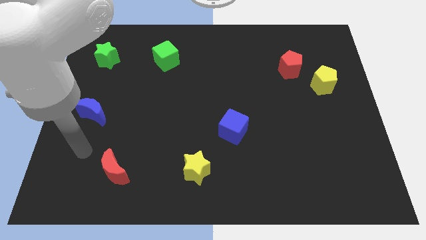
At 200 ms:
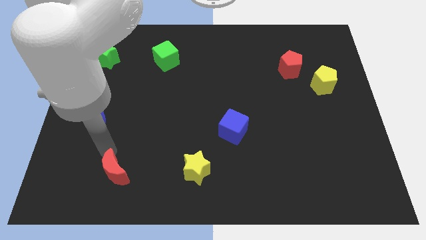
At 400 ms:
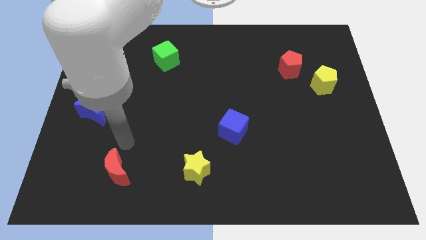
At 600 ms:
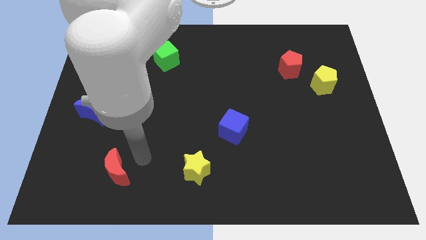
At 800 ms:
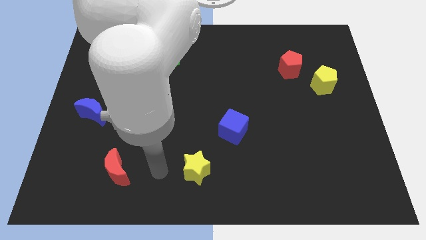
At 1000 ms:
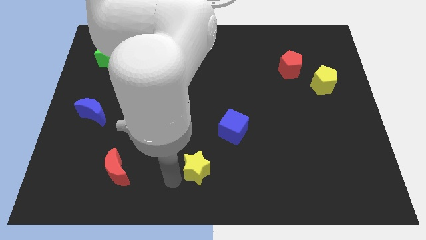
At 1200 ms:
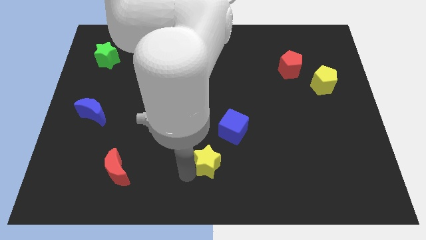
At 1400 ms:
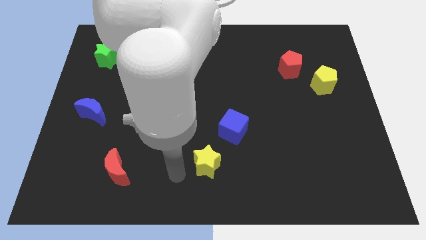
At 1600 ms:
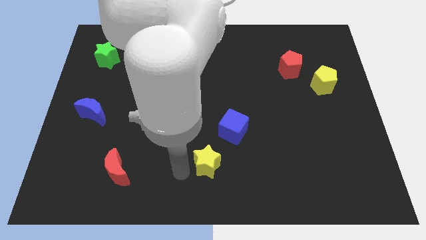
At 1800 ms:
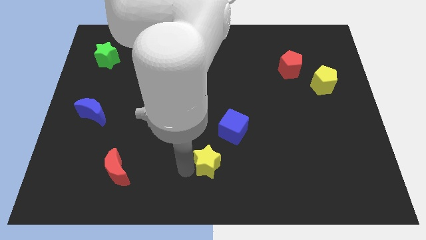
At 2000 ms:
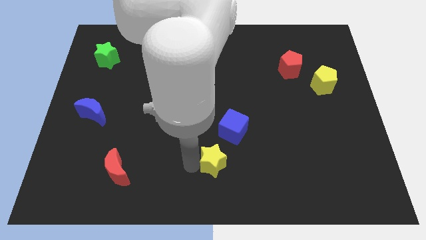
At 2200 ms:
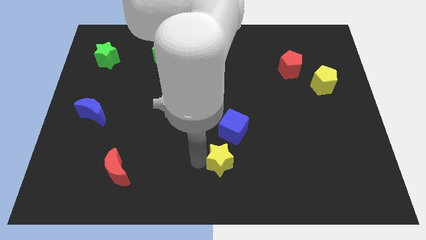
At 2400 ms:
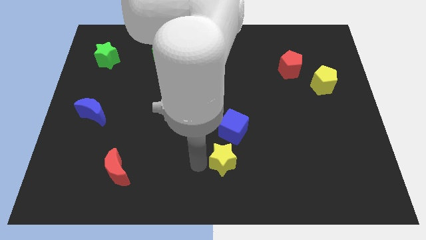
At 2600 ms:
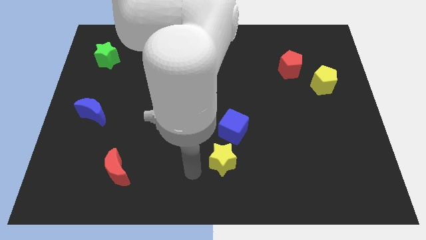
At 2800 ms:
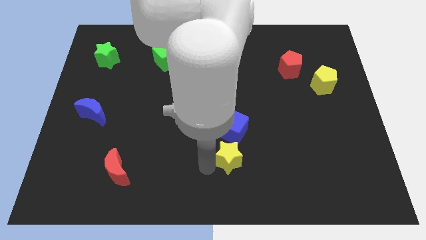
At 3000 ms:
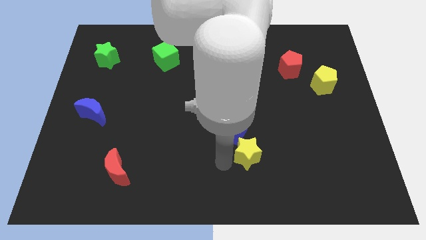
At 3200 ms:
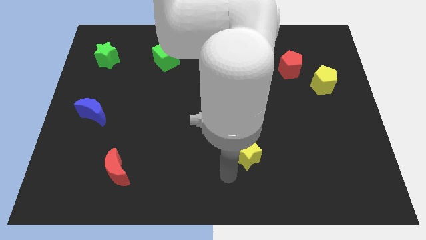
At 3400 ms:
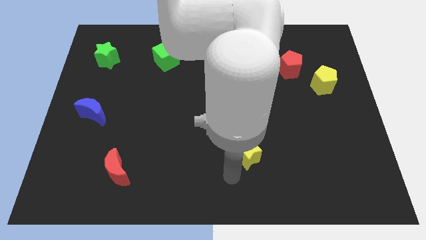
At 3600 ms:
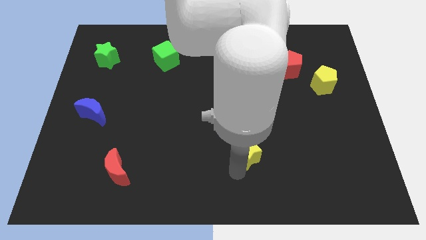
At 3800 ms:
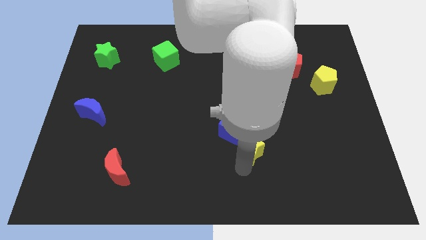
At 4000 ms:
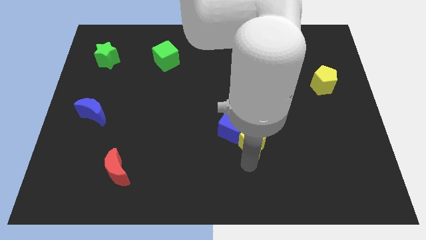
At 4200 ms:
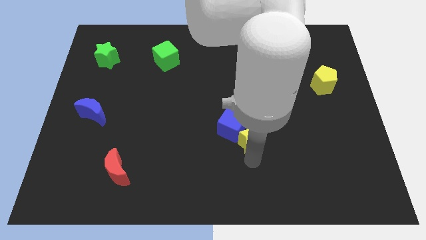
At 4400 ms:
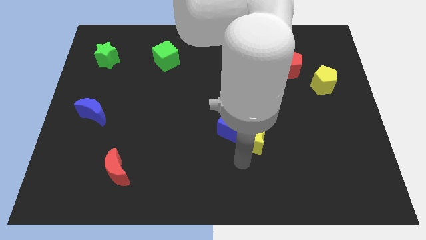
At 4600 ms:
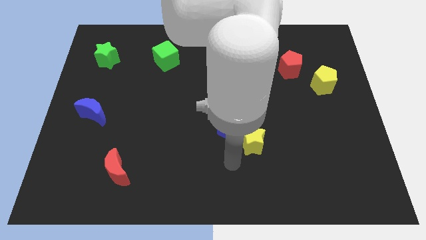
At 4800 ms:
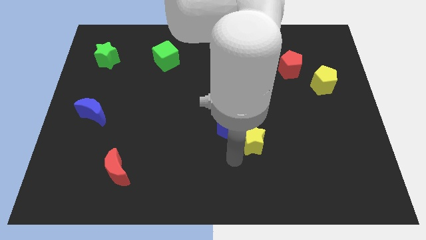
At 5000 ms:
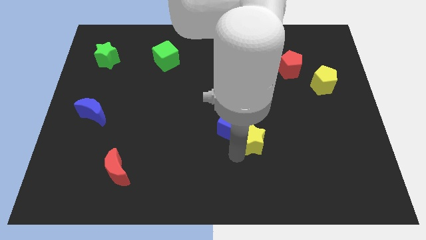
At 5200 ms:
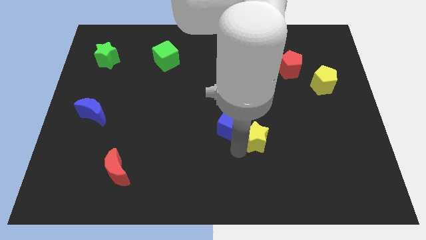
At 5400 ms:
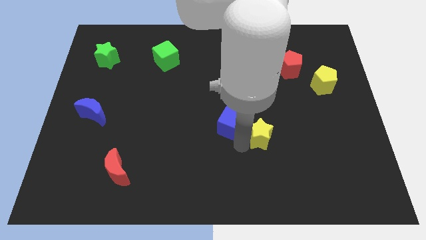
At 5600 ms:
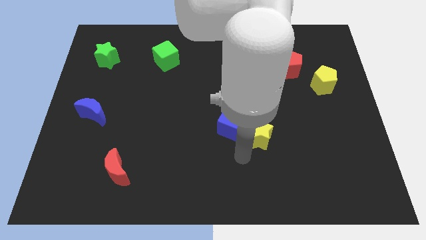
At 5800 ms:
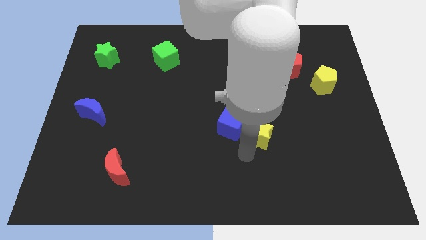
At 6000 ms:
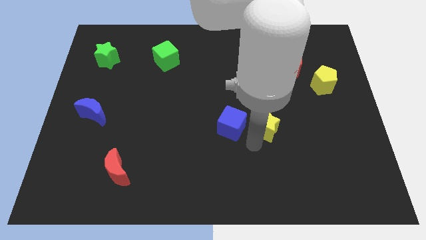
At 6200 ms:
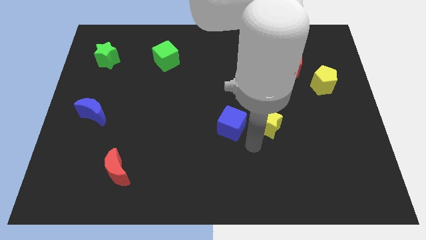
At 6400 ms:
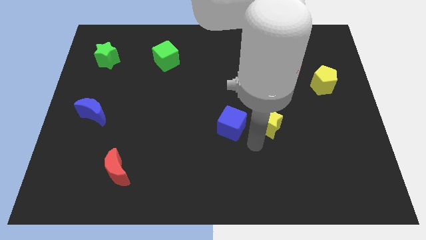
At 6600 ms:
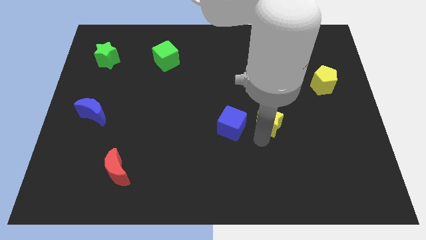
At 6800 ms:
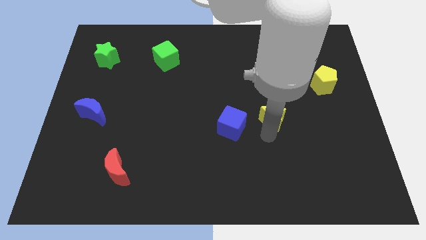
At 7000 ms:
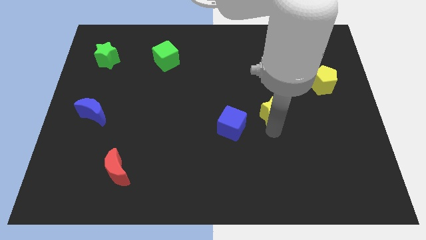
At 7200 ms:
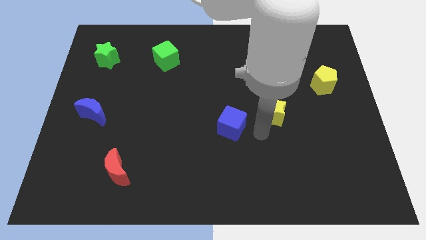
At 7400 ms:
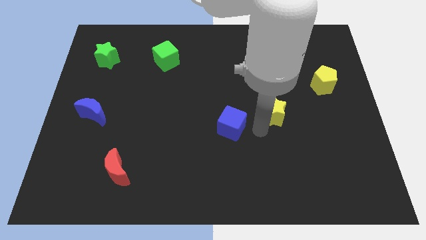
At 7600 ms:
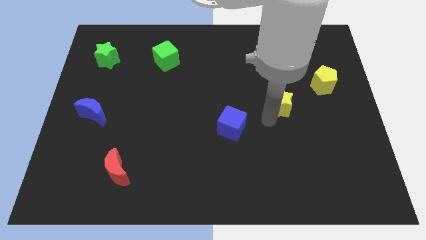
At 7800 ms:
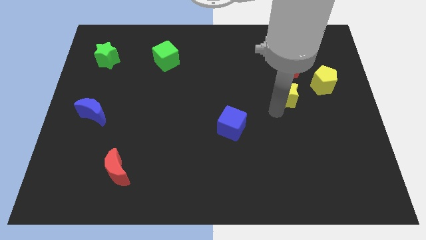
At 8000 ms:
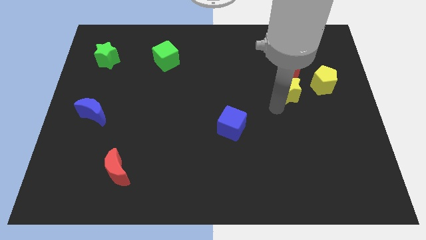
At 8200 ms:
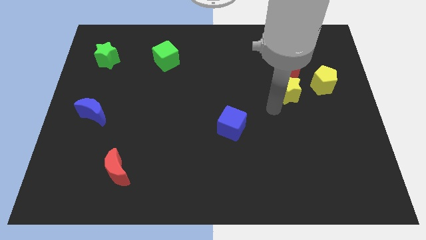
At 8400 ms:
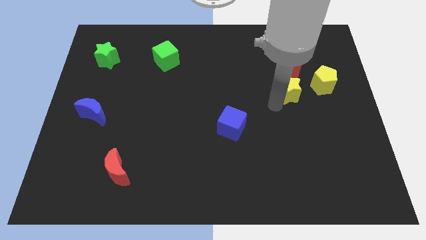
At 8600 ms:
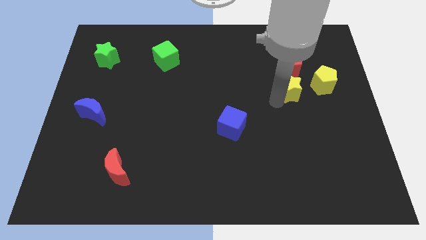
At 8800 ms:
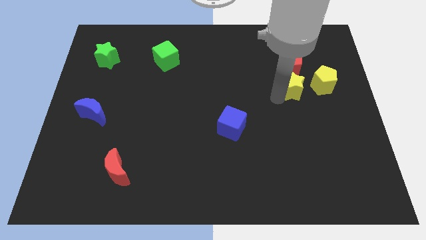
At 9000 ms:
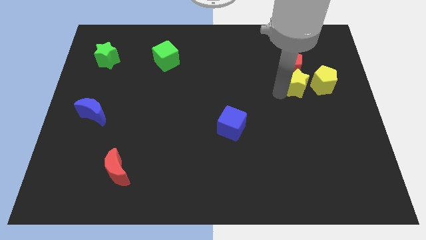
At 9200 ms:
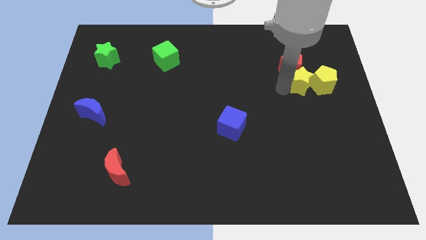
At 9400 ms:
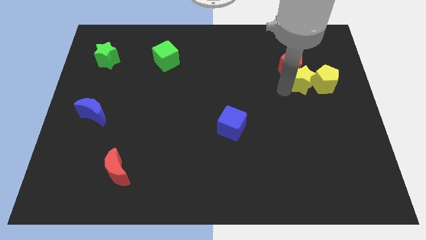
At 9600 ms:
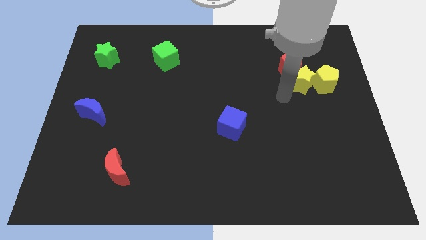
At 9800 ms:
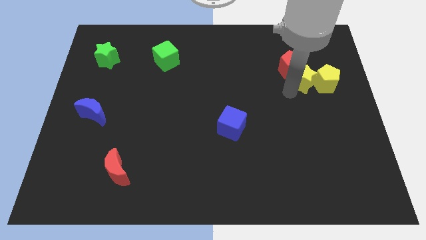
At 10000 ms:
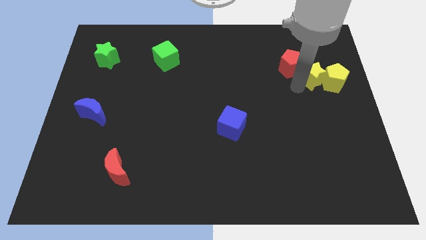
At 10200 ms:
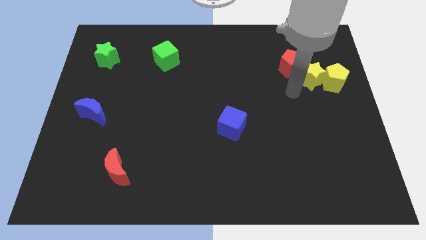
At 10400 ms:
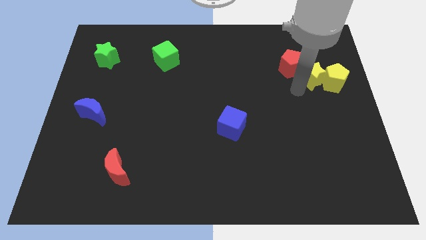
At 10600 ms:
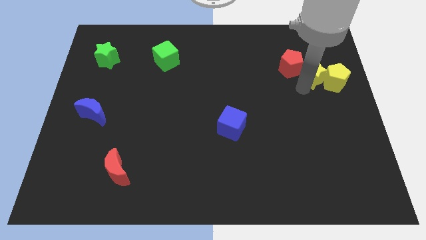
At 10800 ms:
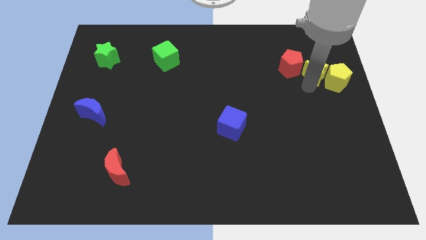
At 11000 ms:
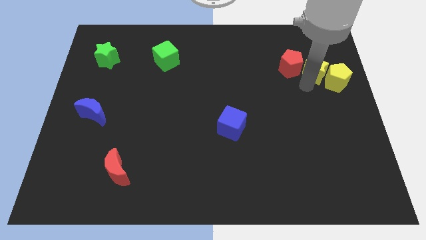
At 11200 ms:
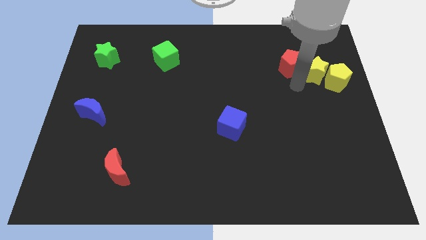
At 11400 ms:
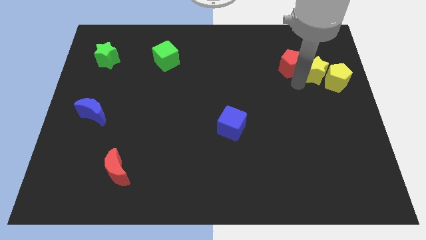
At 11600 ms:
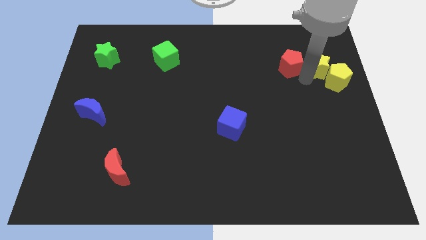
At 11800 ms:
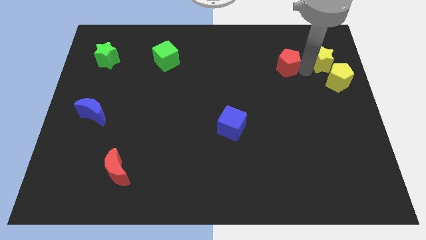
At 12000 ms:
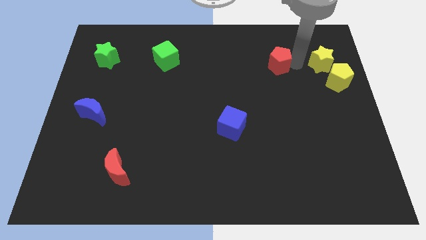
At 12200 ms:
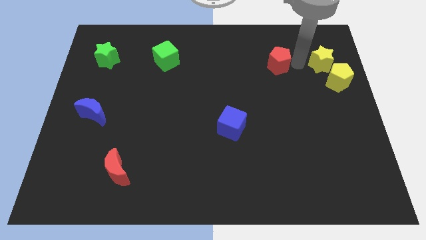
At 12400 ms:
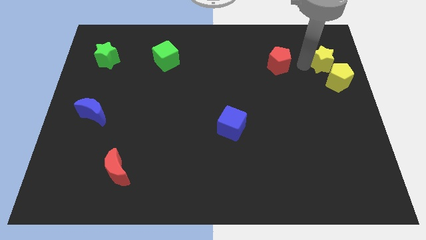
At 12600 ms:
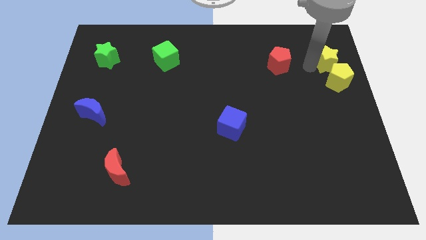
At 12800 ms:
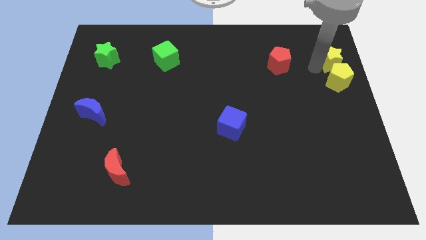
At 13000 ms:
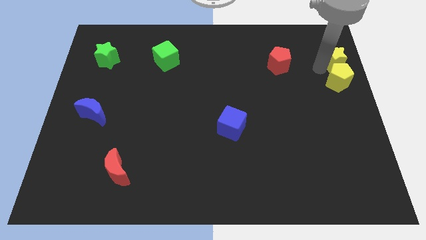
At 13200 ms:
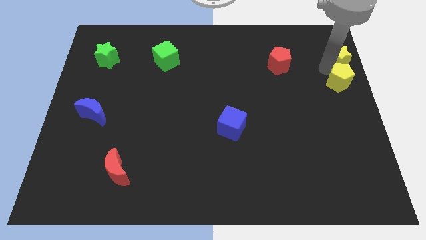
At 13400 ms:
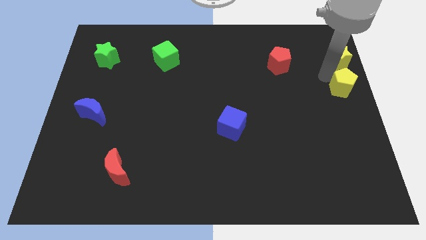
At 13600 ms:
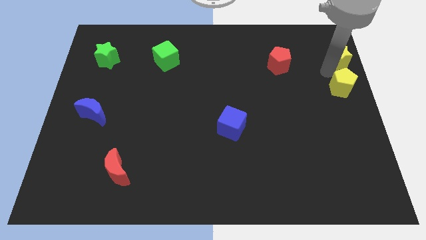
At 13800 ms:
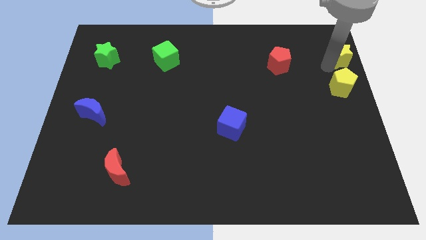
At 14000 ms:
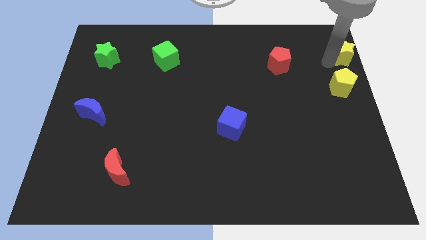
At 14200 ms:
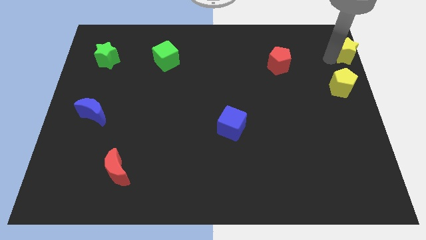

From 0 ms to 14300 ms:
put the yellow star to the top right corner

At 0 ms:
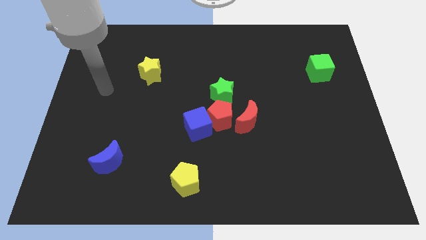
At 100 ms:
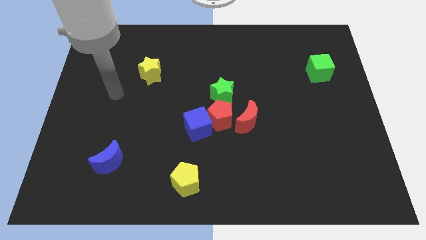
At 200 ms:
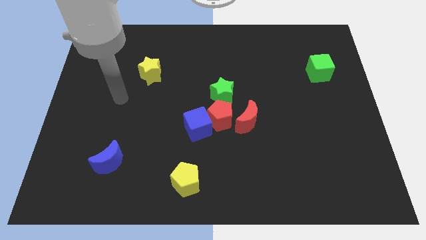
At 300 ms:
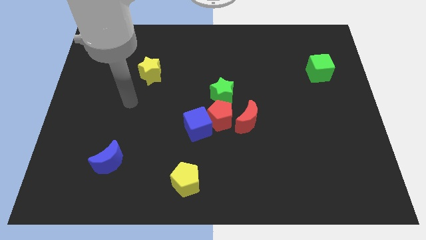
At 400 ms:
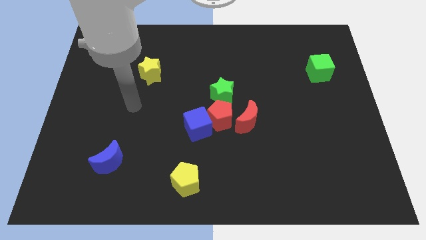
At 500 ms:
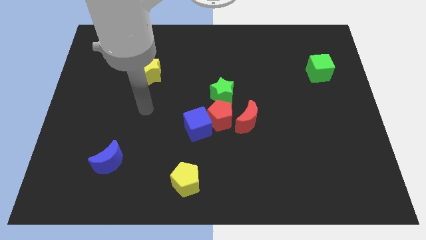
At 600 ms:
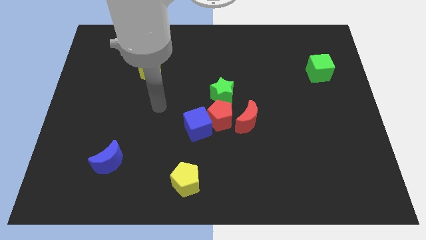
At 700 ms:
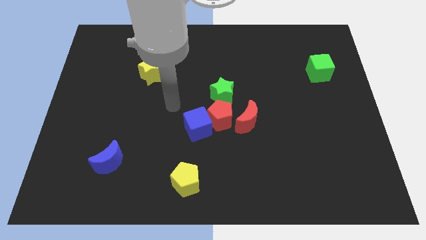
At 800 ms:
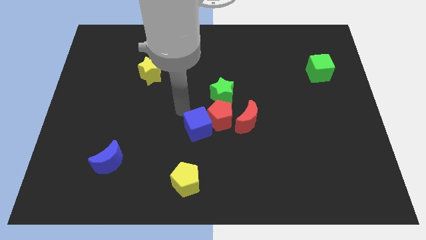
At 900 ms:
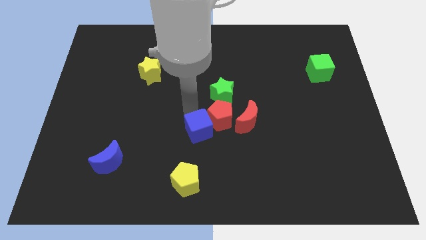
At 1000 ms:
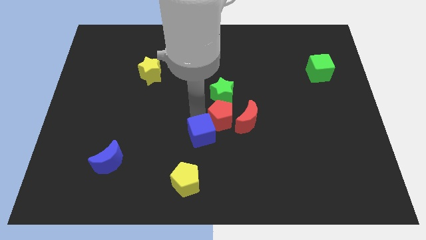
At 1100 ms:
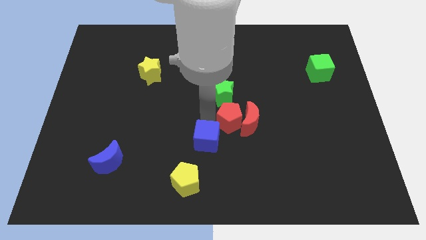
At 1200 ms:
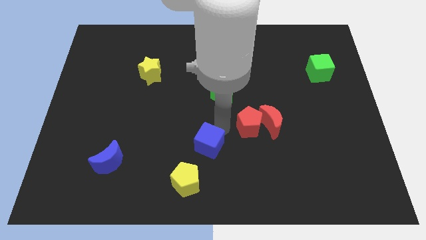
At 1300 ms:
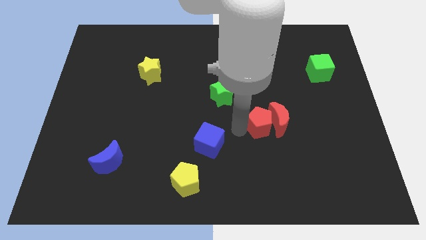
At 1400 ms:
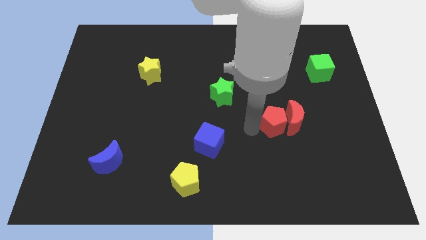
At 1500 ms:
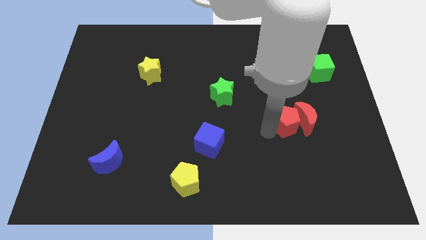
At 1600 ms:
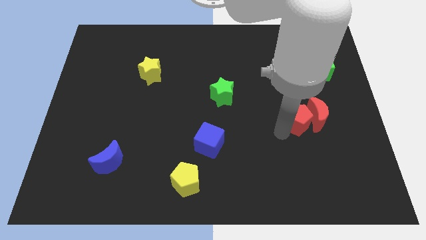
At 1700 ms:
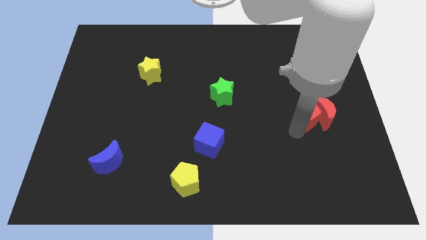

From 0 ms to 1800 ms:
slide the red moon to the center right
